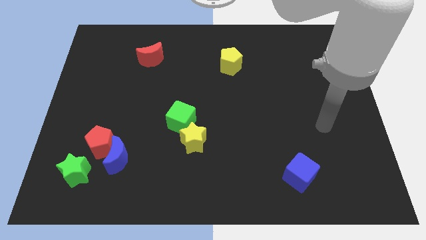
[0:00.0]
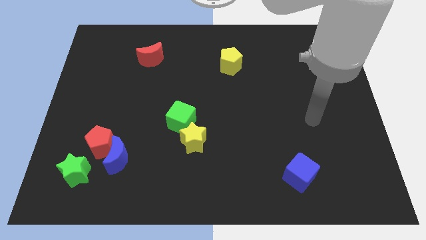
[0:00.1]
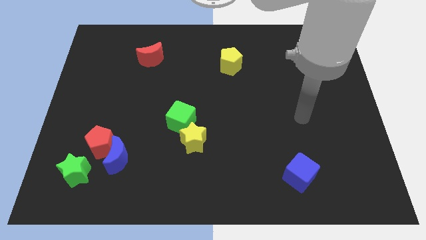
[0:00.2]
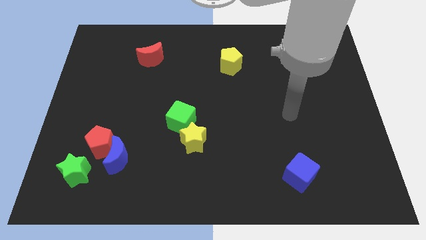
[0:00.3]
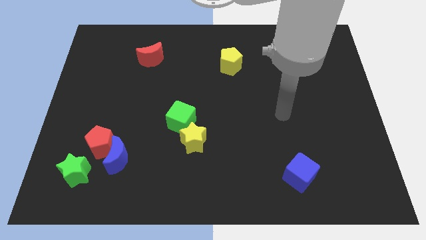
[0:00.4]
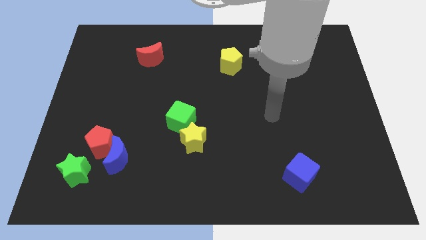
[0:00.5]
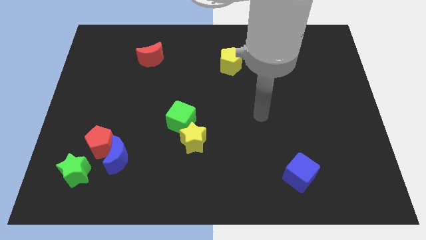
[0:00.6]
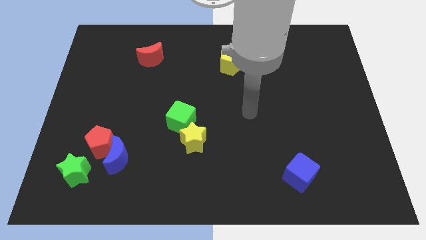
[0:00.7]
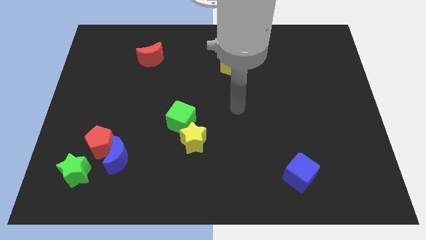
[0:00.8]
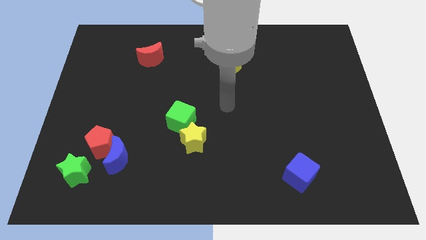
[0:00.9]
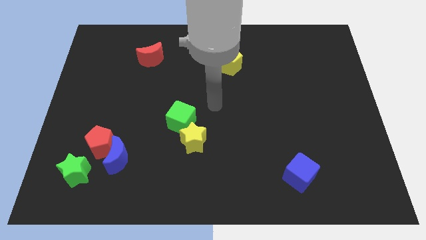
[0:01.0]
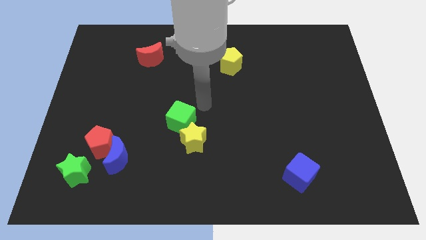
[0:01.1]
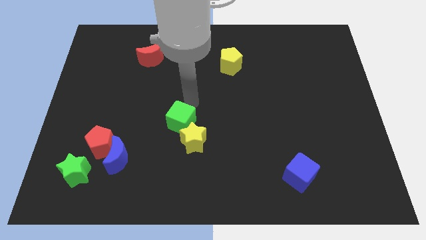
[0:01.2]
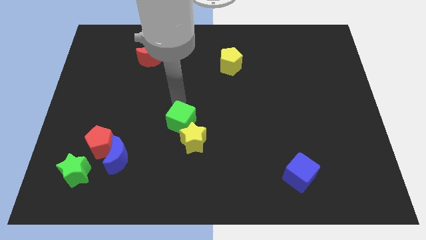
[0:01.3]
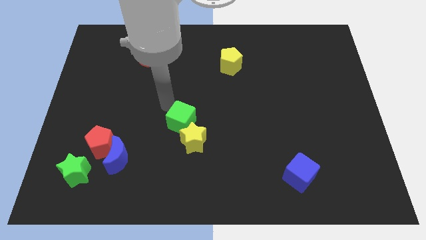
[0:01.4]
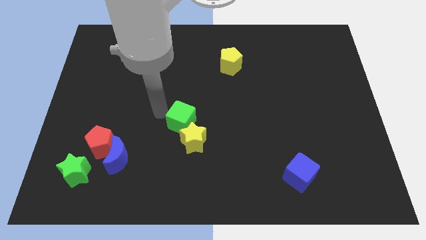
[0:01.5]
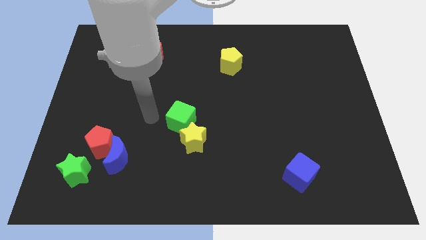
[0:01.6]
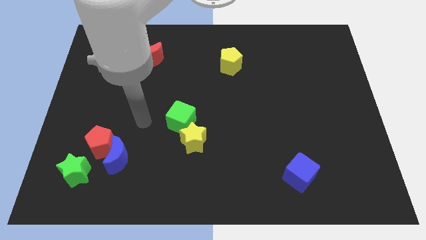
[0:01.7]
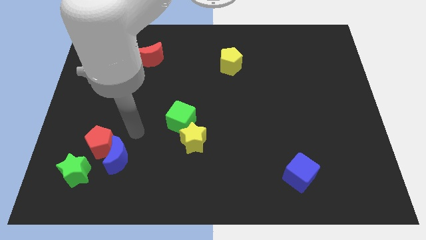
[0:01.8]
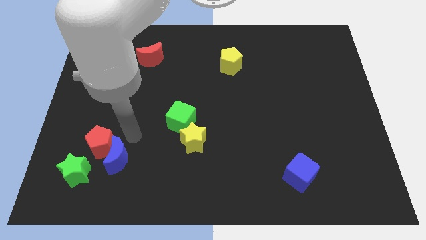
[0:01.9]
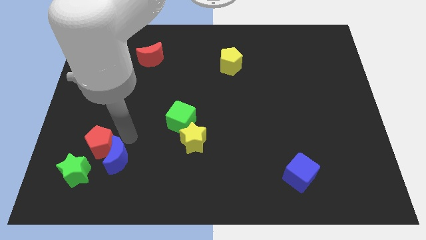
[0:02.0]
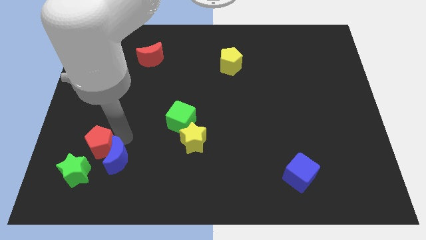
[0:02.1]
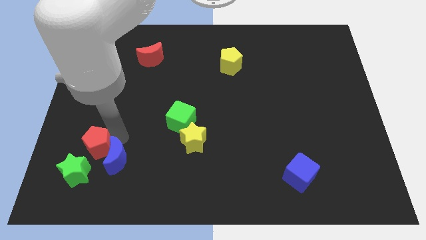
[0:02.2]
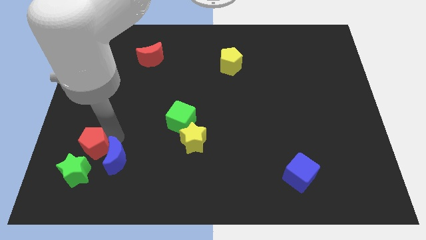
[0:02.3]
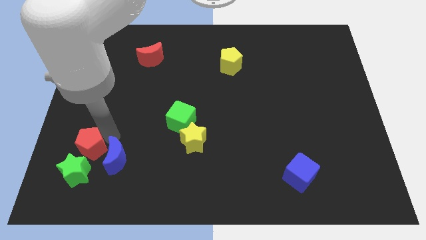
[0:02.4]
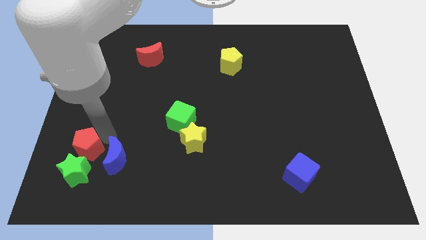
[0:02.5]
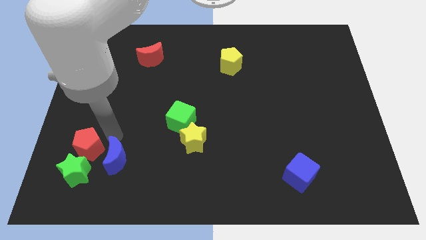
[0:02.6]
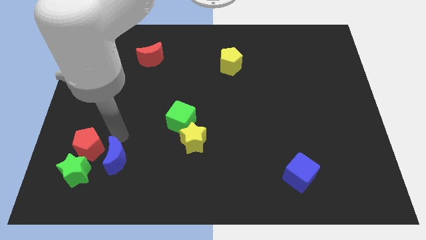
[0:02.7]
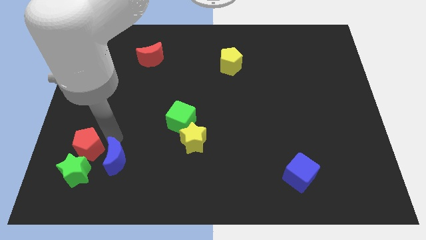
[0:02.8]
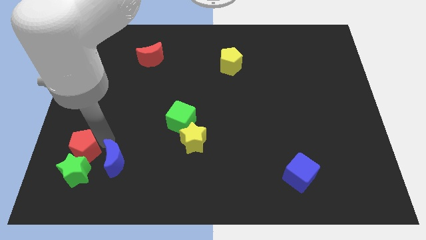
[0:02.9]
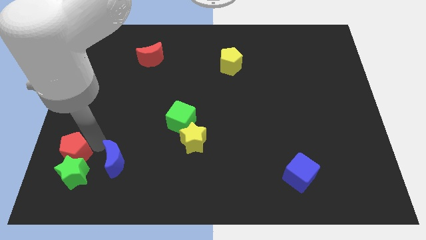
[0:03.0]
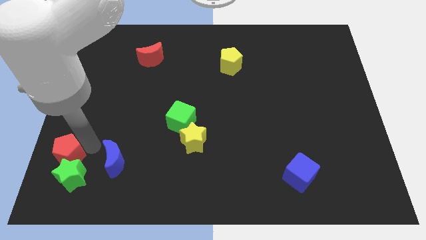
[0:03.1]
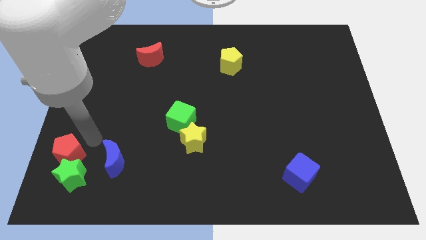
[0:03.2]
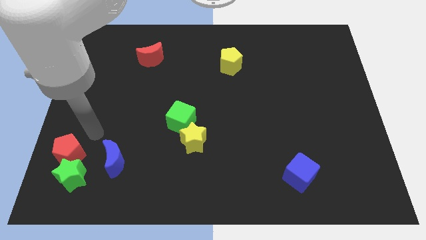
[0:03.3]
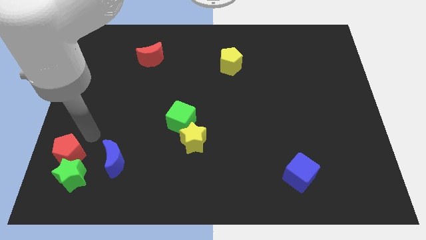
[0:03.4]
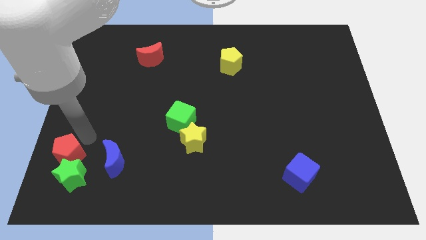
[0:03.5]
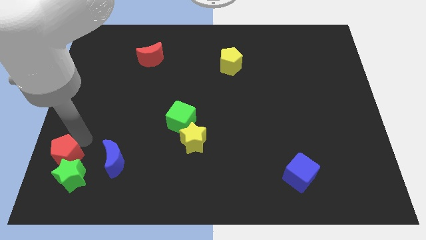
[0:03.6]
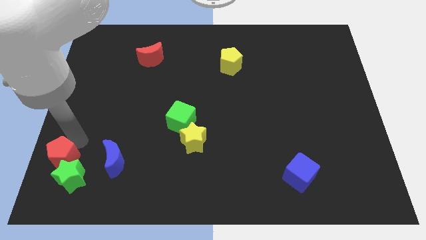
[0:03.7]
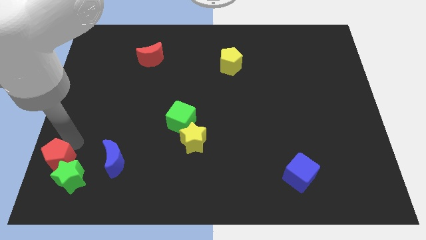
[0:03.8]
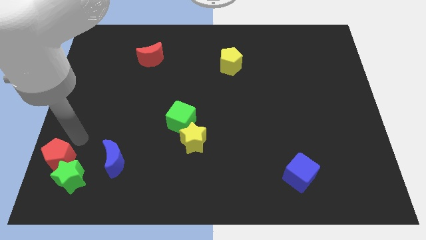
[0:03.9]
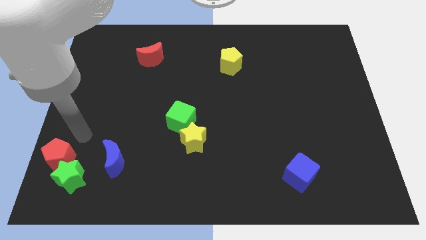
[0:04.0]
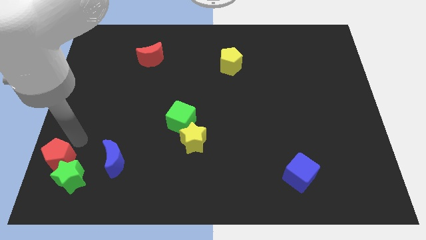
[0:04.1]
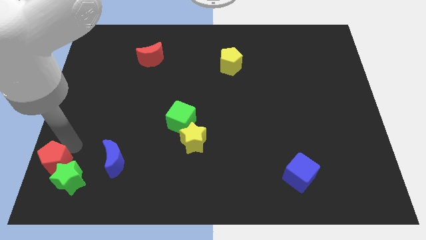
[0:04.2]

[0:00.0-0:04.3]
push the red pentagon to the bottom left corner

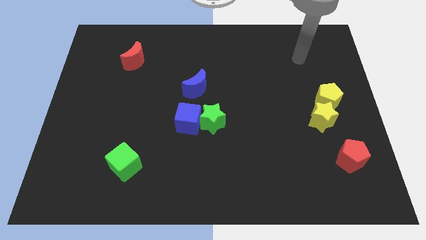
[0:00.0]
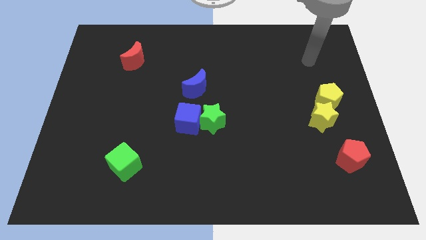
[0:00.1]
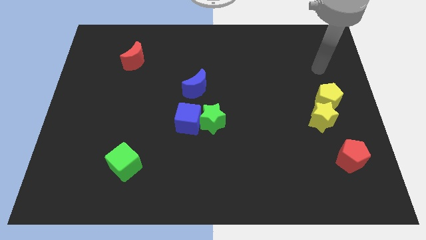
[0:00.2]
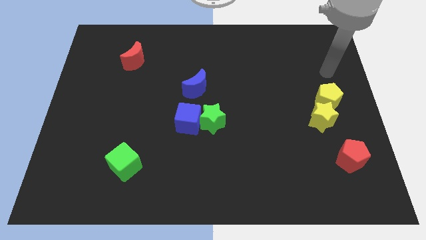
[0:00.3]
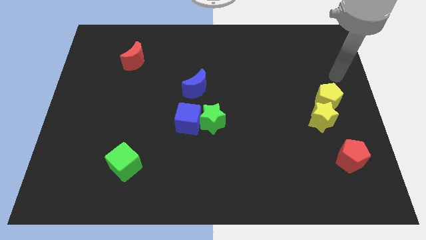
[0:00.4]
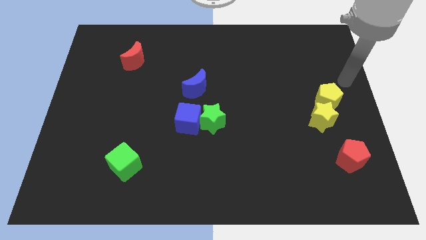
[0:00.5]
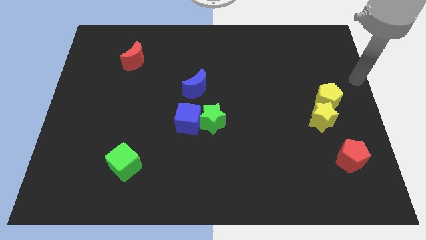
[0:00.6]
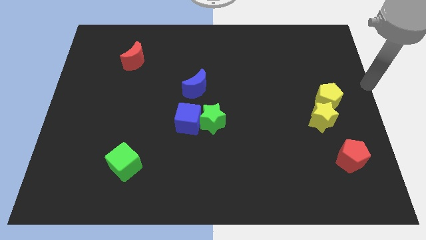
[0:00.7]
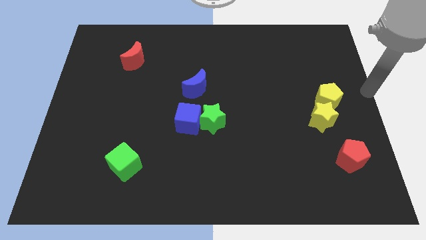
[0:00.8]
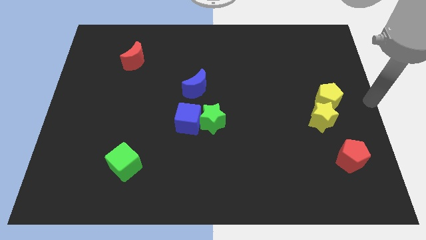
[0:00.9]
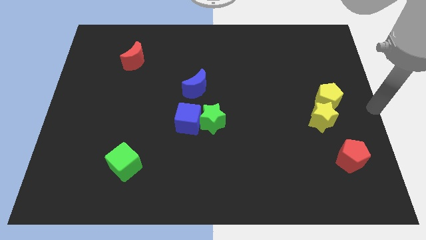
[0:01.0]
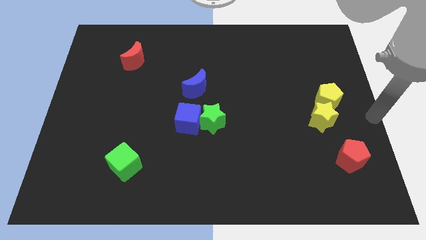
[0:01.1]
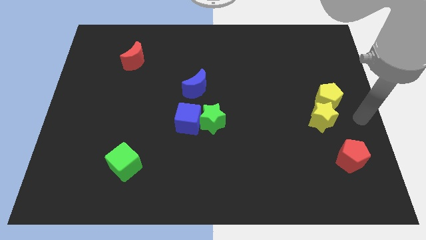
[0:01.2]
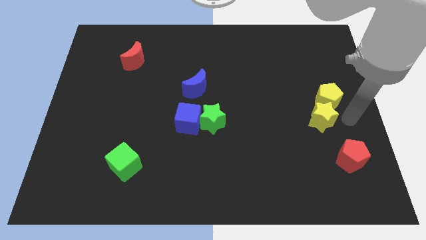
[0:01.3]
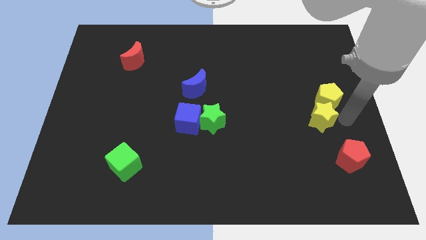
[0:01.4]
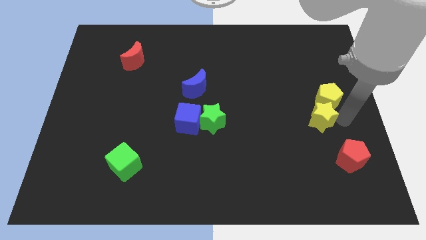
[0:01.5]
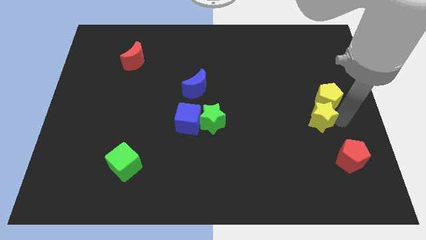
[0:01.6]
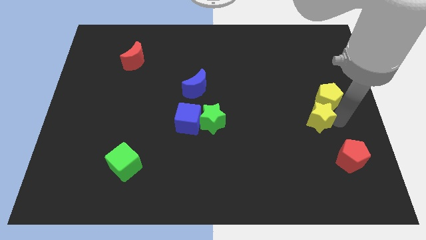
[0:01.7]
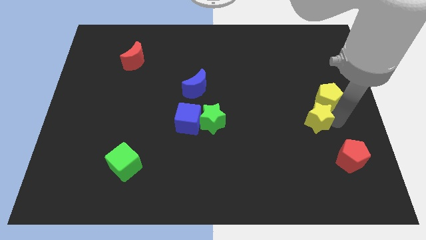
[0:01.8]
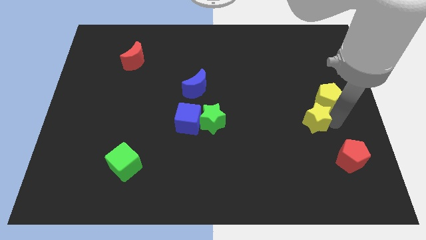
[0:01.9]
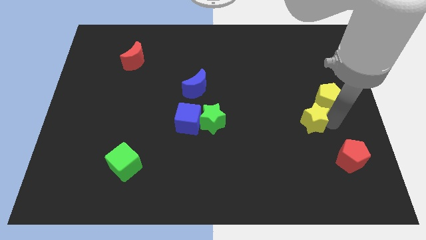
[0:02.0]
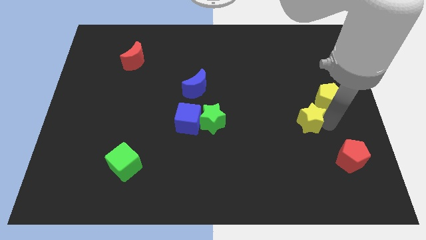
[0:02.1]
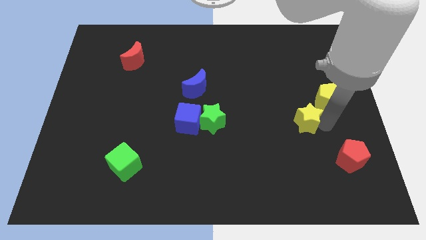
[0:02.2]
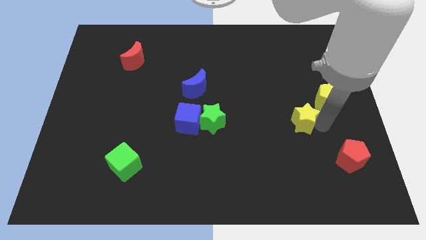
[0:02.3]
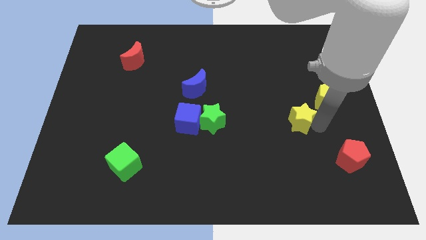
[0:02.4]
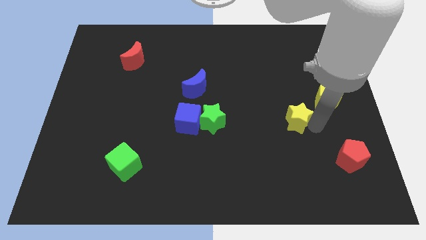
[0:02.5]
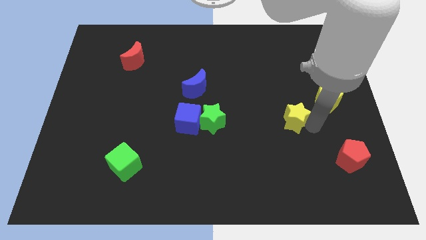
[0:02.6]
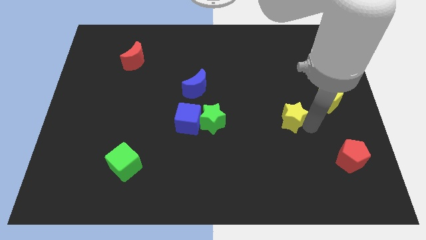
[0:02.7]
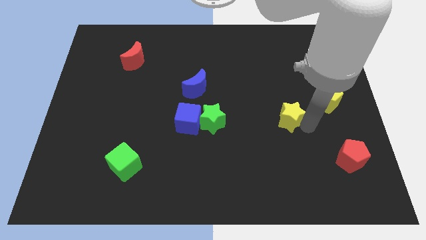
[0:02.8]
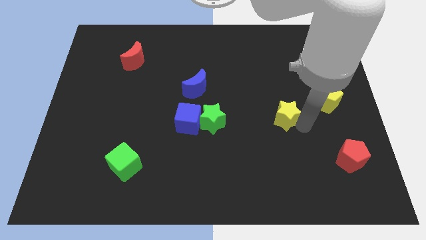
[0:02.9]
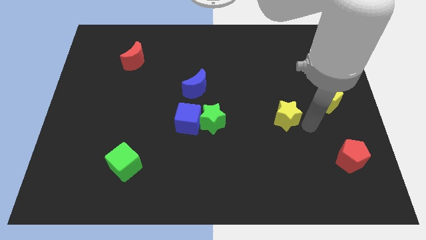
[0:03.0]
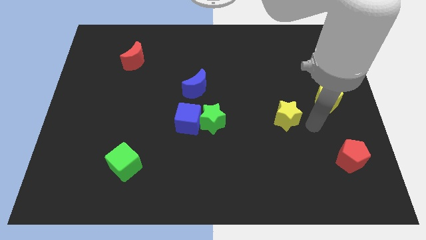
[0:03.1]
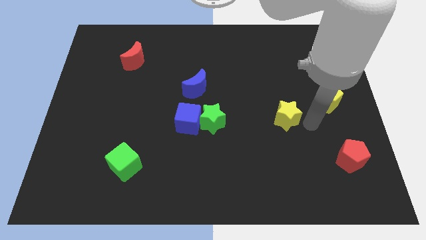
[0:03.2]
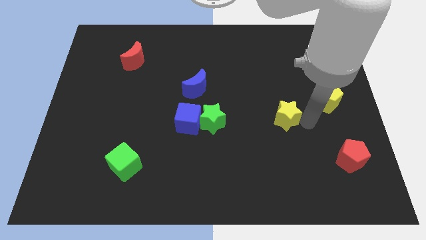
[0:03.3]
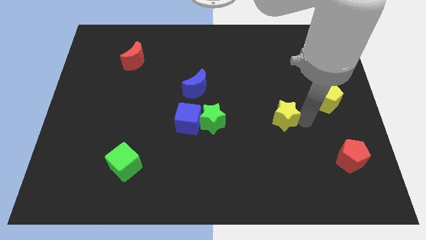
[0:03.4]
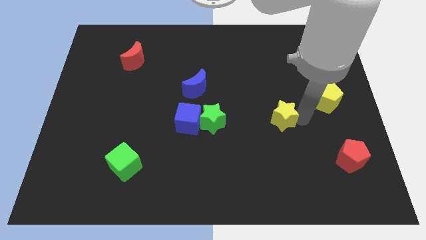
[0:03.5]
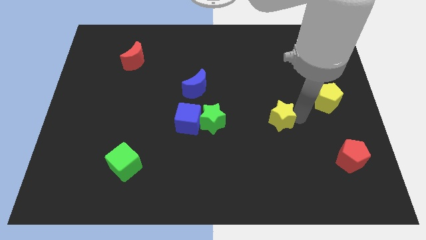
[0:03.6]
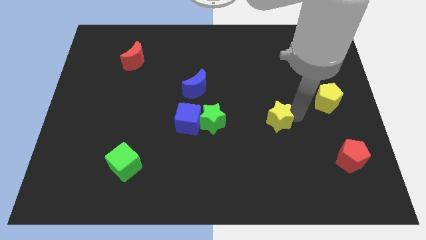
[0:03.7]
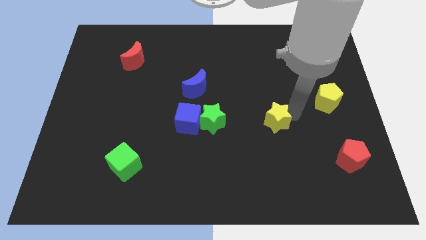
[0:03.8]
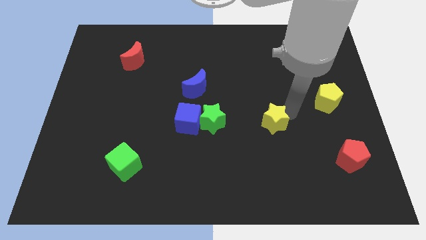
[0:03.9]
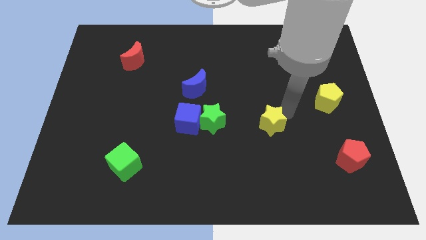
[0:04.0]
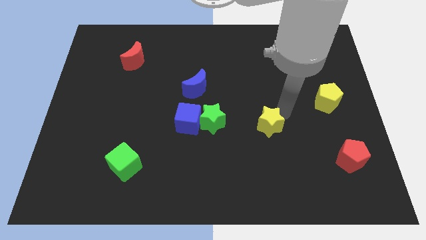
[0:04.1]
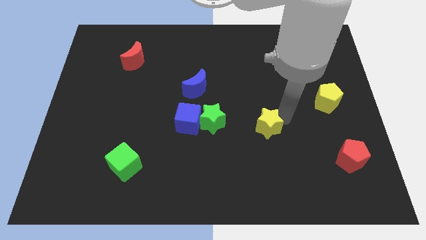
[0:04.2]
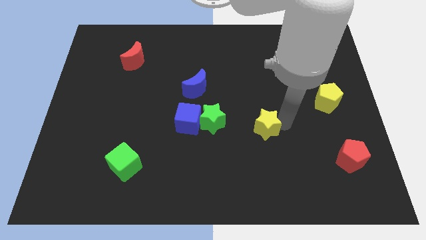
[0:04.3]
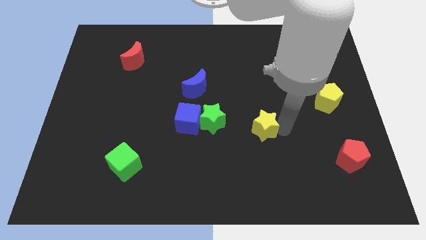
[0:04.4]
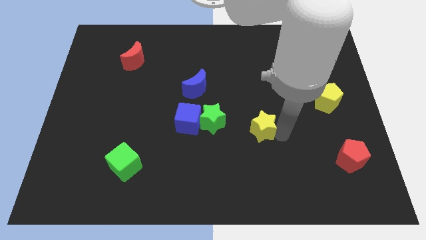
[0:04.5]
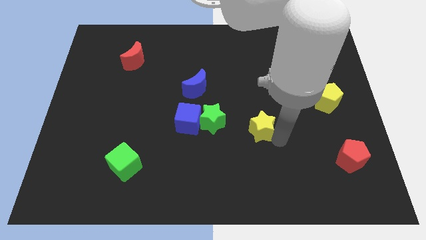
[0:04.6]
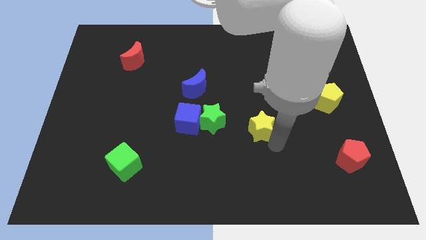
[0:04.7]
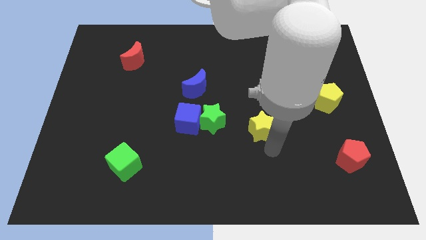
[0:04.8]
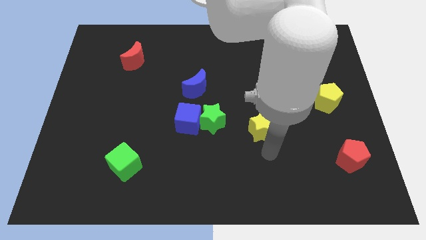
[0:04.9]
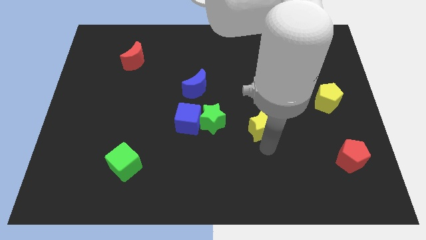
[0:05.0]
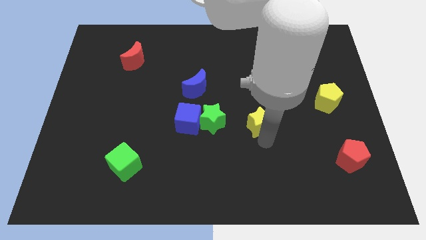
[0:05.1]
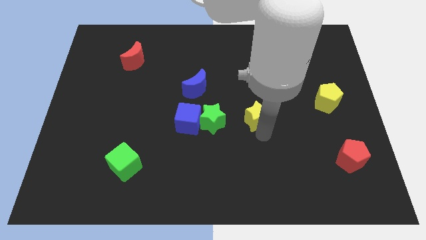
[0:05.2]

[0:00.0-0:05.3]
slide the yellow star to the center
